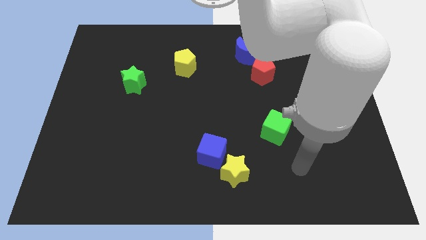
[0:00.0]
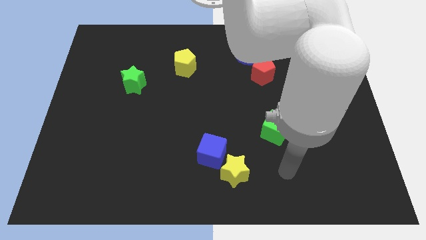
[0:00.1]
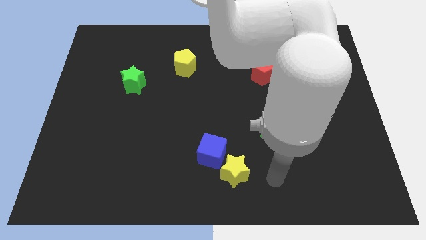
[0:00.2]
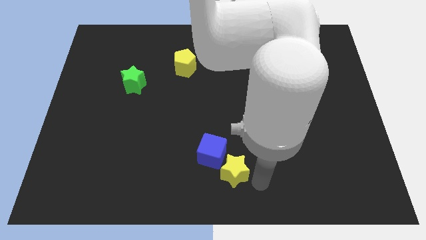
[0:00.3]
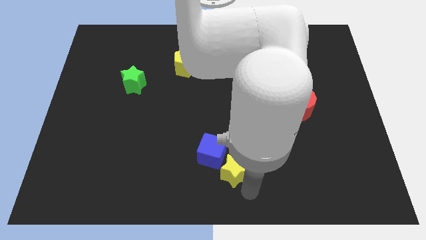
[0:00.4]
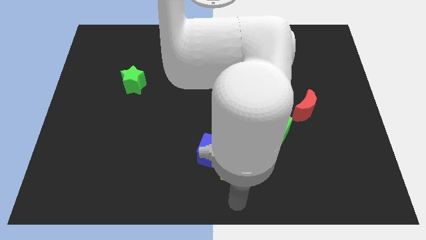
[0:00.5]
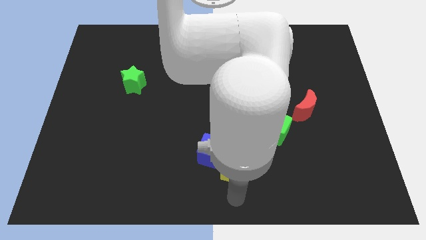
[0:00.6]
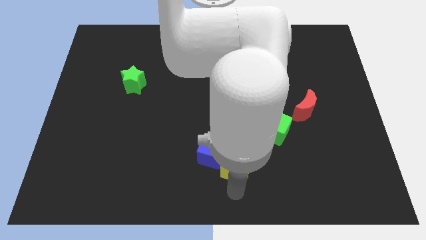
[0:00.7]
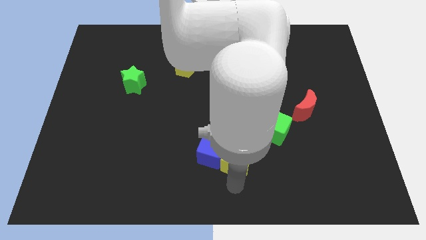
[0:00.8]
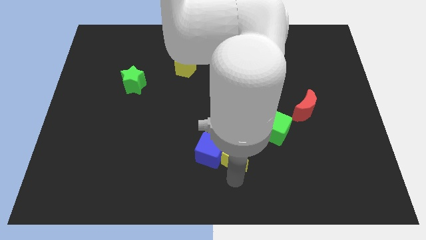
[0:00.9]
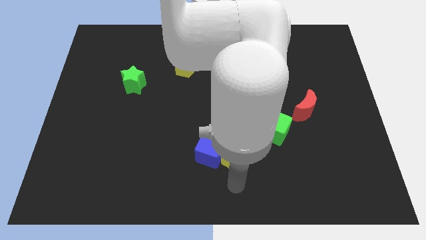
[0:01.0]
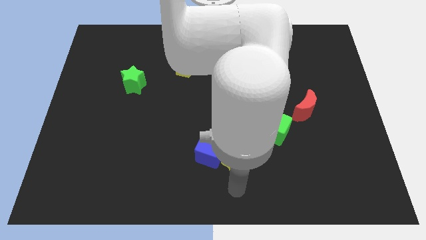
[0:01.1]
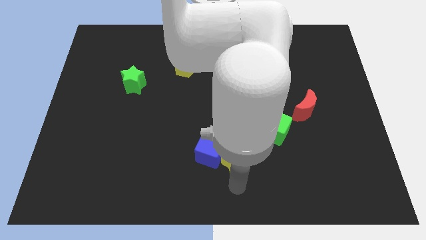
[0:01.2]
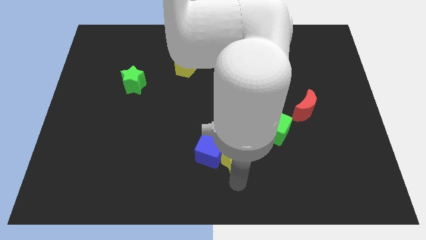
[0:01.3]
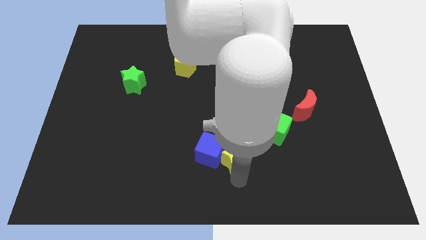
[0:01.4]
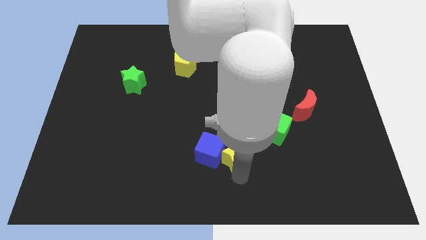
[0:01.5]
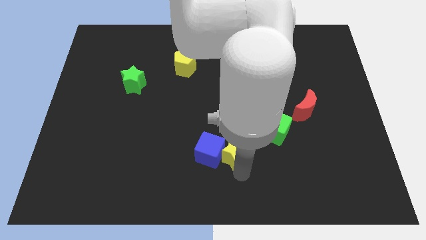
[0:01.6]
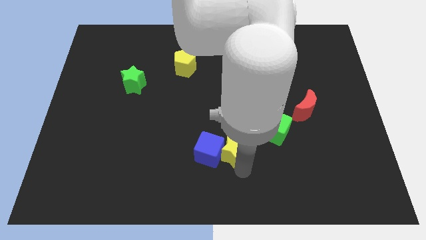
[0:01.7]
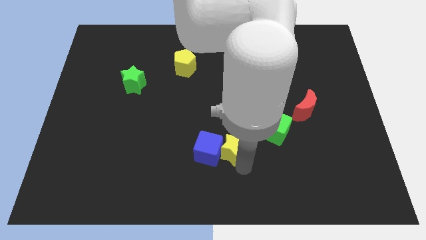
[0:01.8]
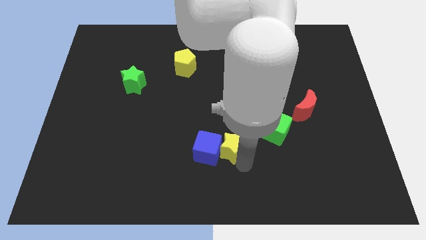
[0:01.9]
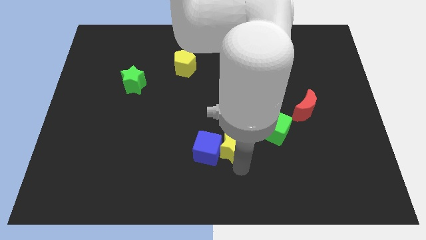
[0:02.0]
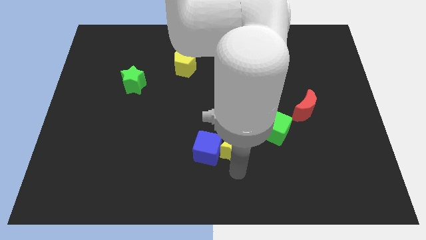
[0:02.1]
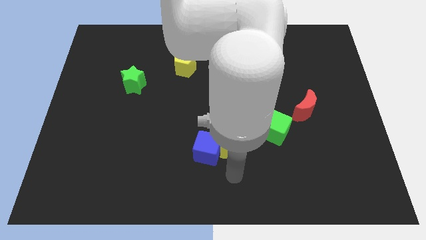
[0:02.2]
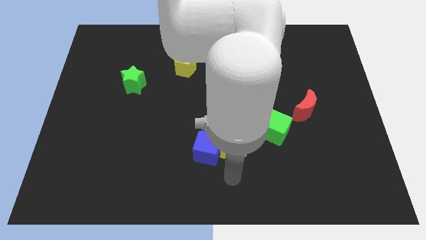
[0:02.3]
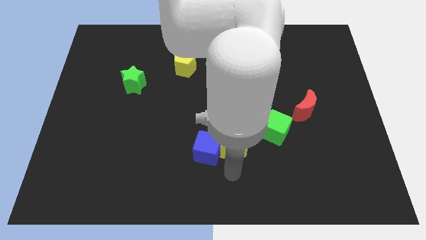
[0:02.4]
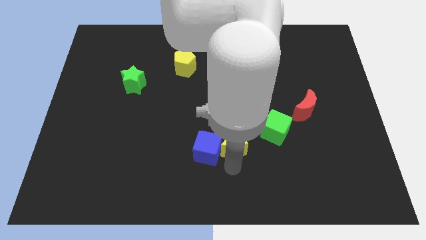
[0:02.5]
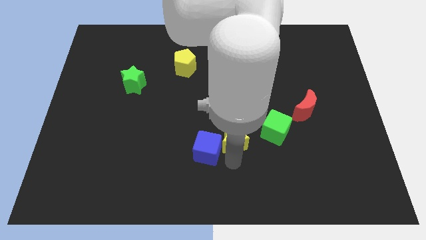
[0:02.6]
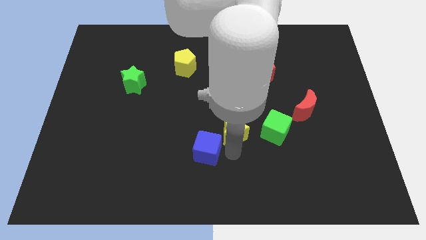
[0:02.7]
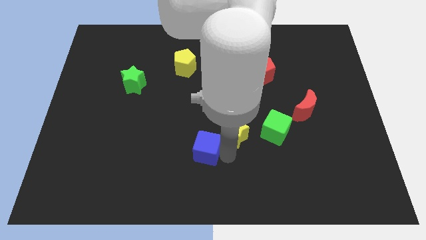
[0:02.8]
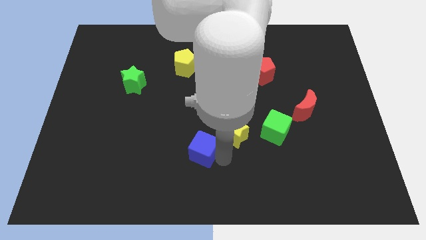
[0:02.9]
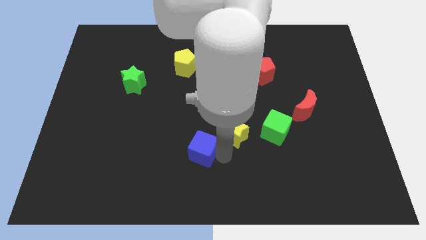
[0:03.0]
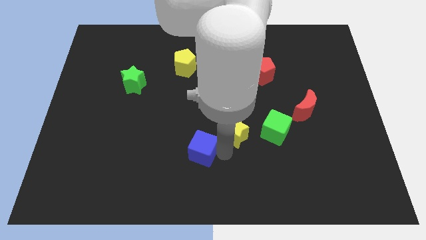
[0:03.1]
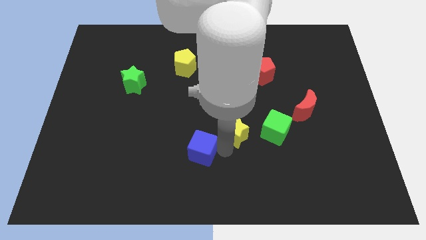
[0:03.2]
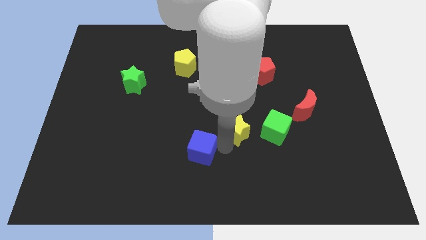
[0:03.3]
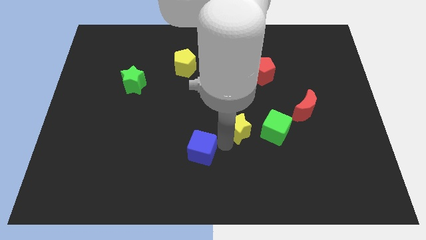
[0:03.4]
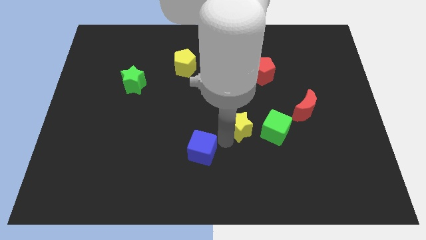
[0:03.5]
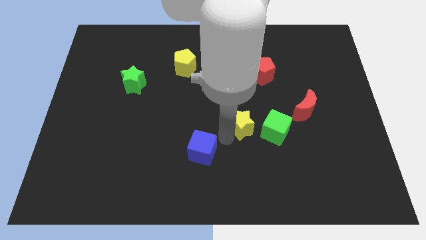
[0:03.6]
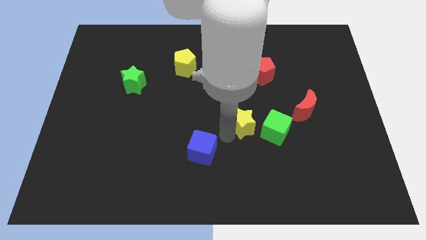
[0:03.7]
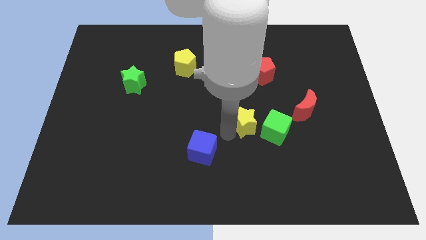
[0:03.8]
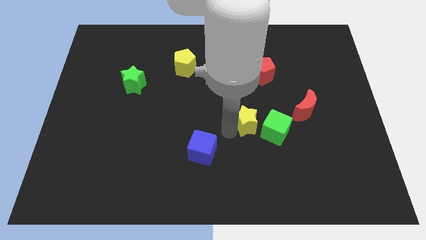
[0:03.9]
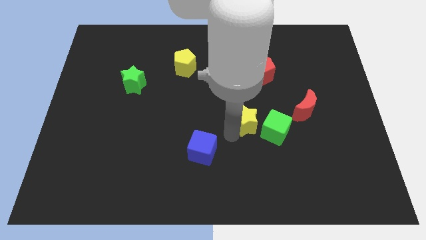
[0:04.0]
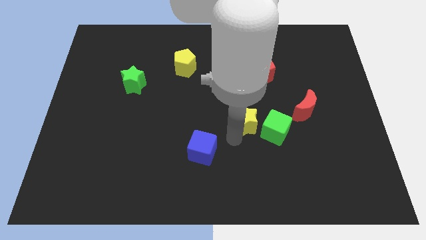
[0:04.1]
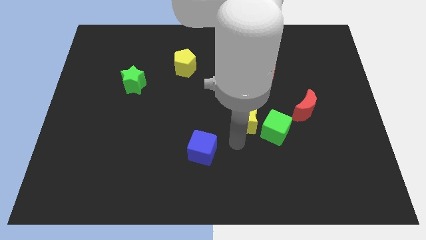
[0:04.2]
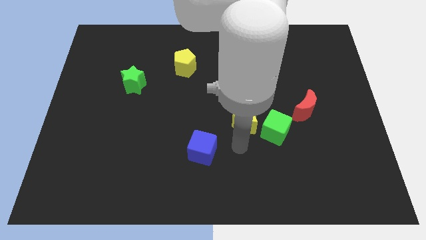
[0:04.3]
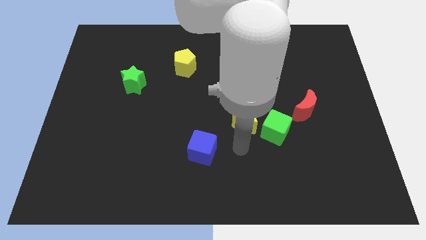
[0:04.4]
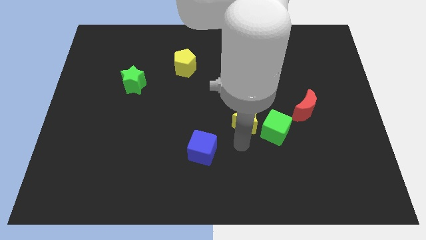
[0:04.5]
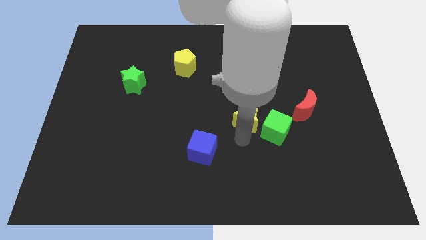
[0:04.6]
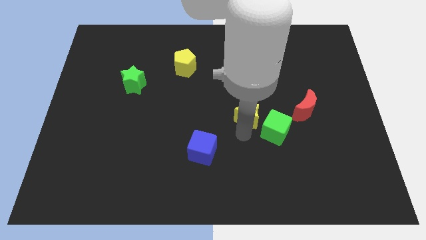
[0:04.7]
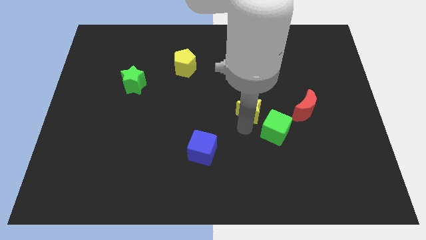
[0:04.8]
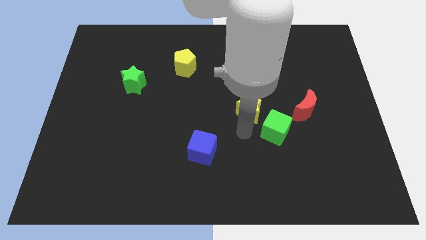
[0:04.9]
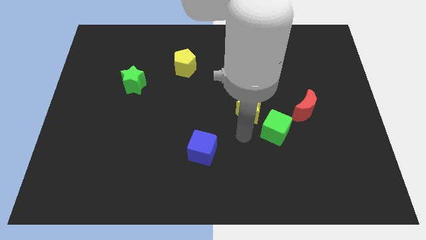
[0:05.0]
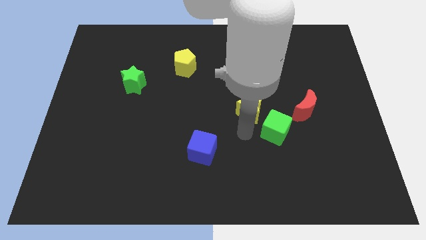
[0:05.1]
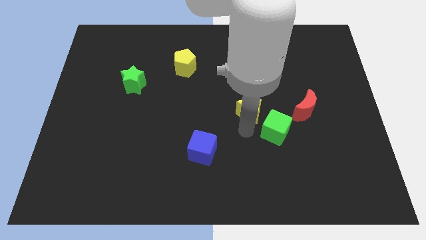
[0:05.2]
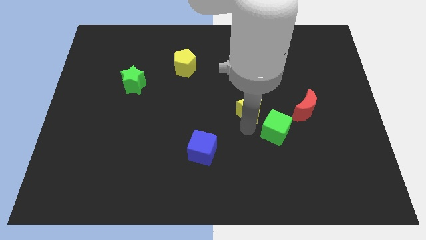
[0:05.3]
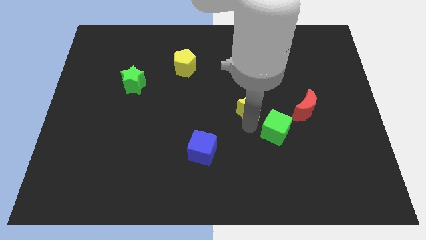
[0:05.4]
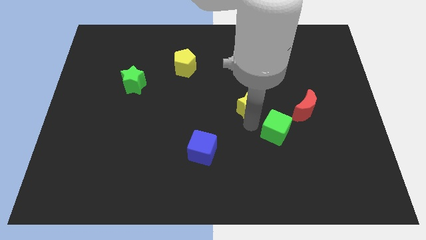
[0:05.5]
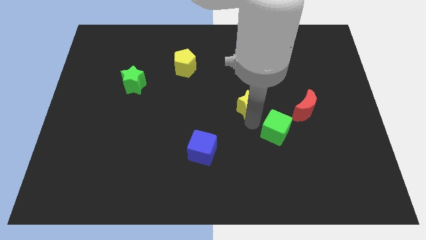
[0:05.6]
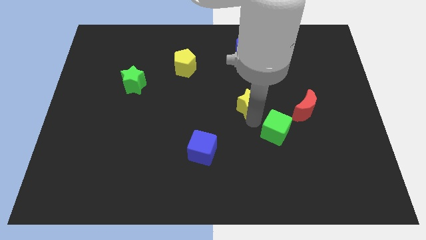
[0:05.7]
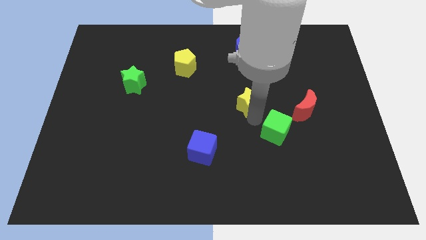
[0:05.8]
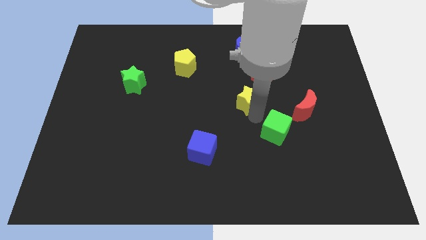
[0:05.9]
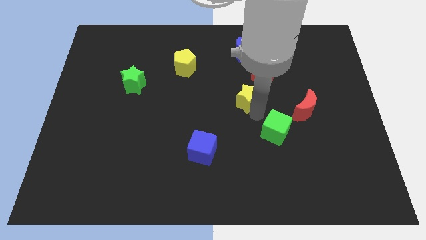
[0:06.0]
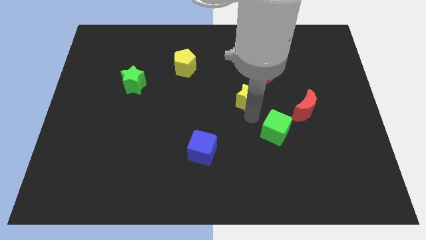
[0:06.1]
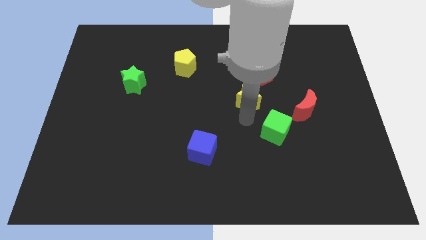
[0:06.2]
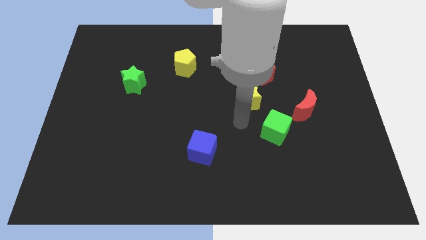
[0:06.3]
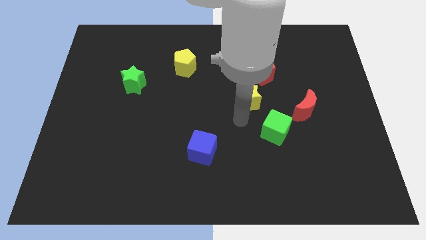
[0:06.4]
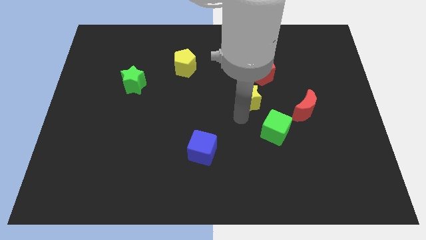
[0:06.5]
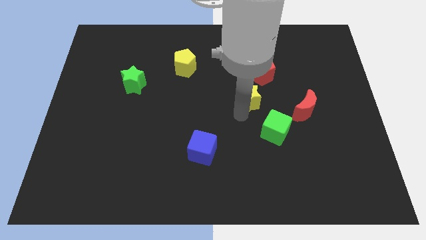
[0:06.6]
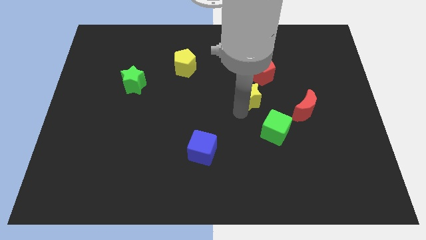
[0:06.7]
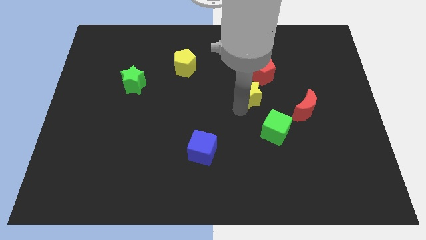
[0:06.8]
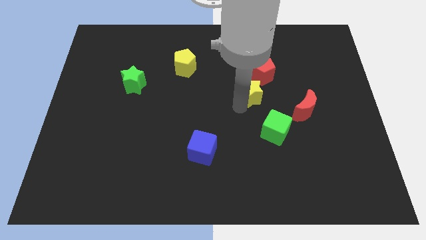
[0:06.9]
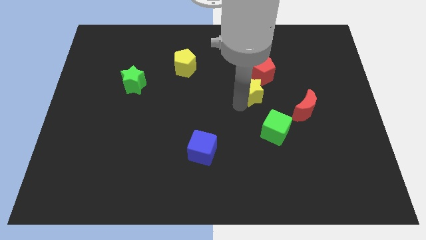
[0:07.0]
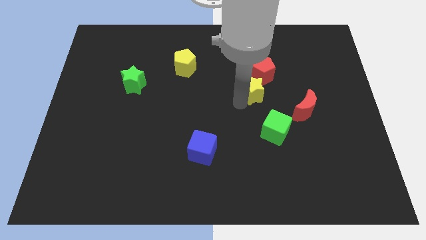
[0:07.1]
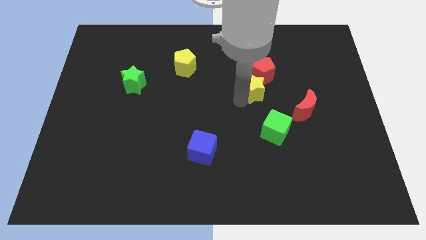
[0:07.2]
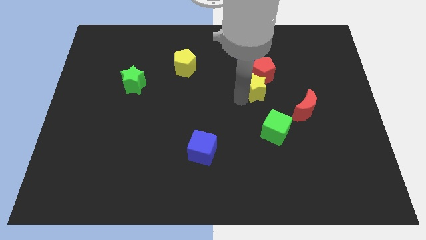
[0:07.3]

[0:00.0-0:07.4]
push the yellow star close to the red pentagon
